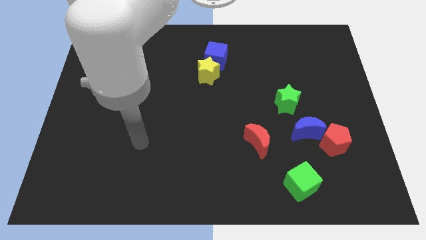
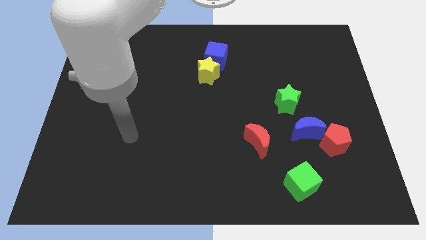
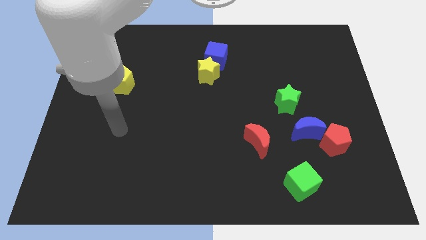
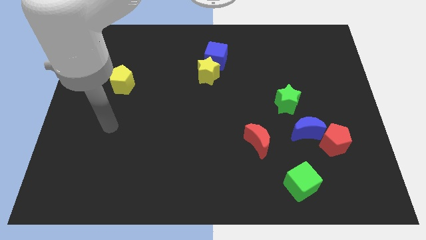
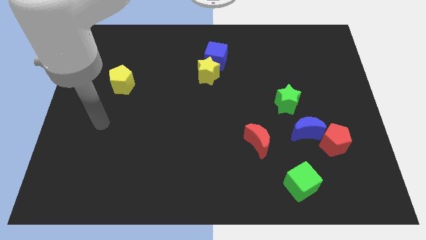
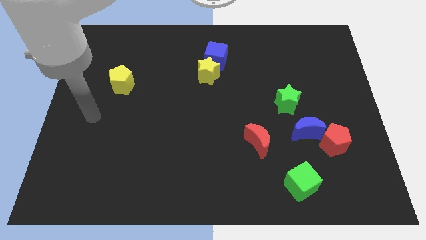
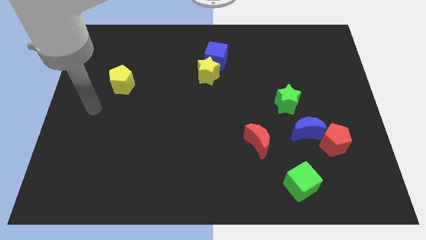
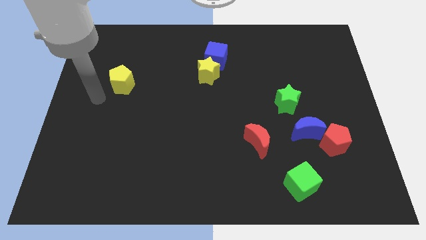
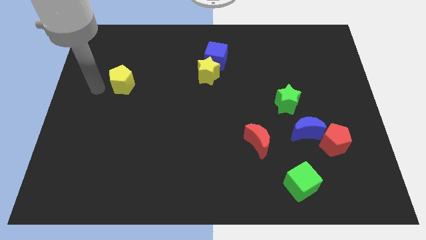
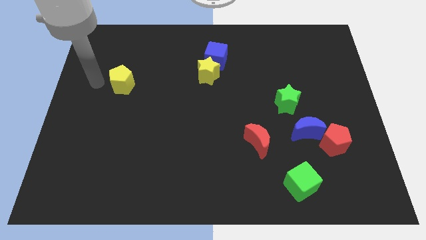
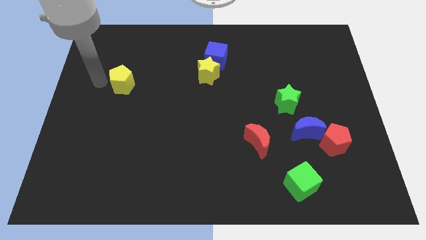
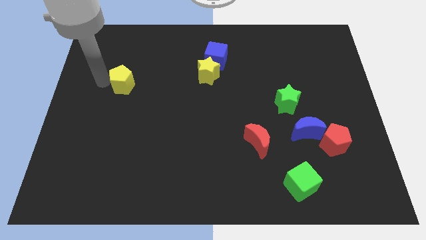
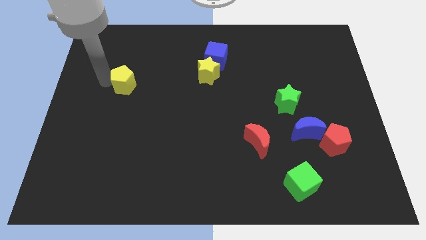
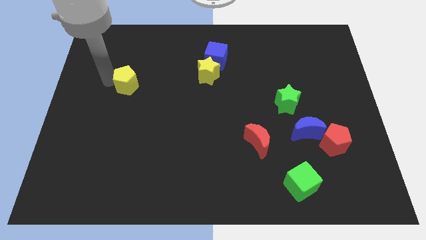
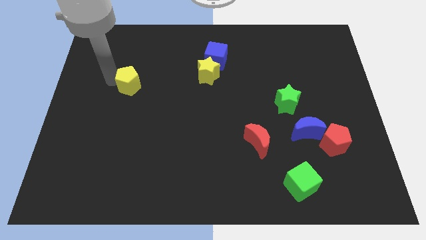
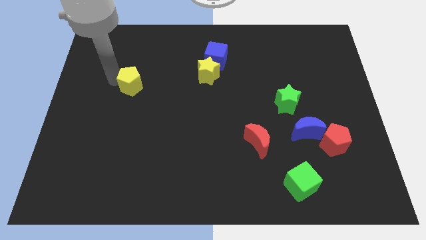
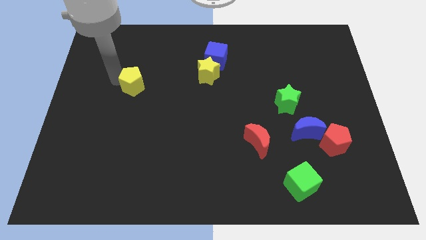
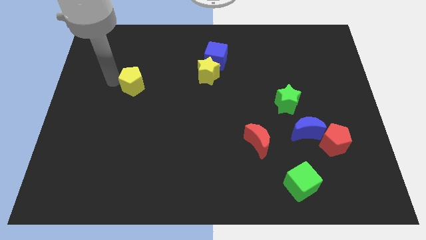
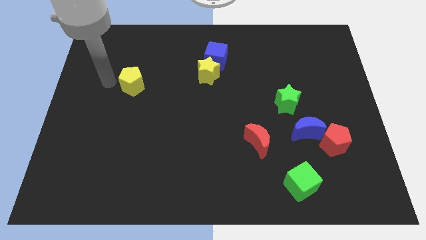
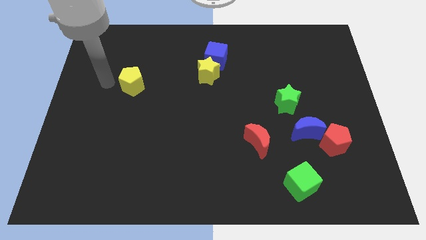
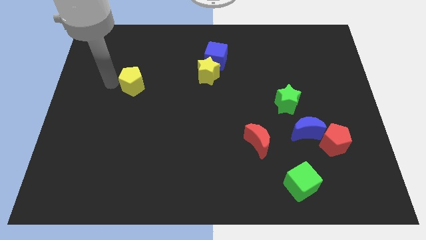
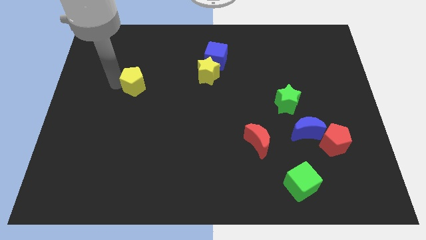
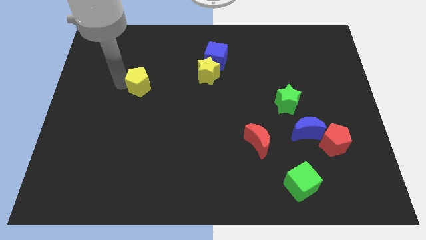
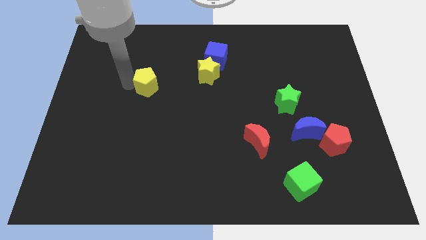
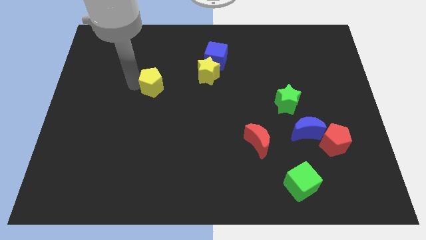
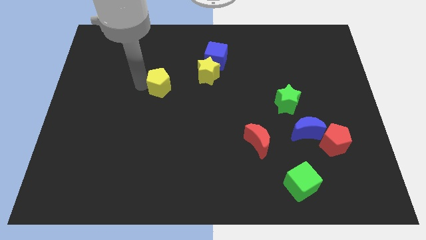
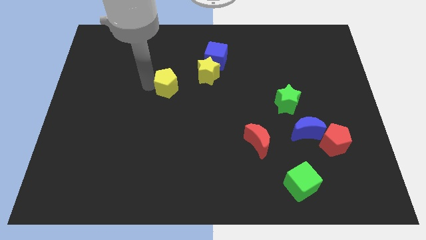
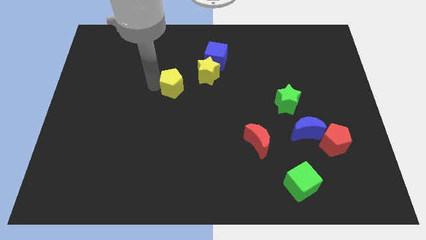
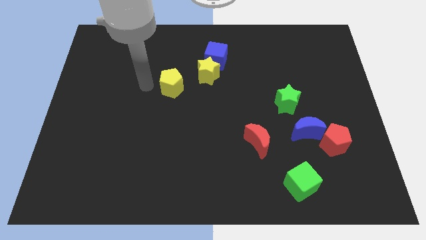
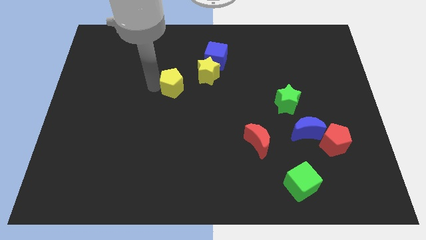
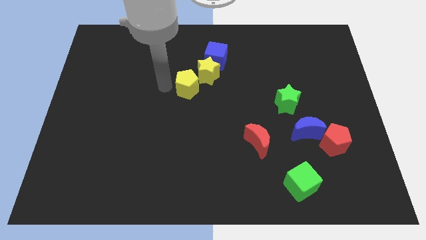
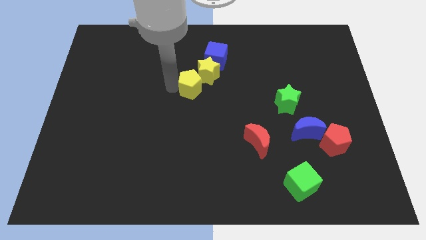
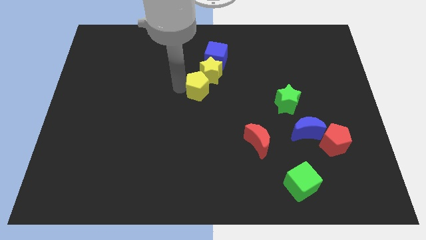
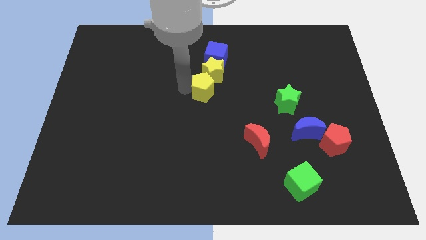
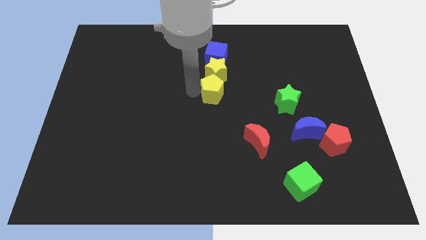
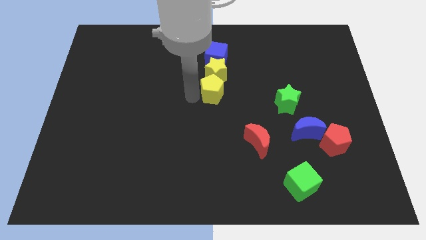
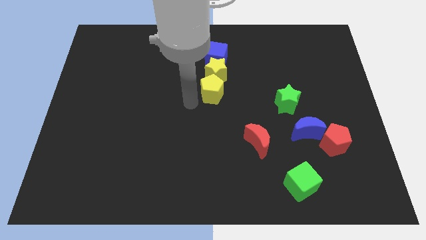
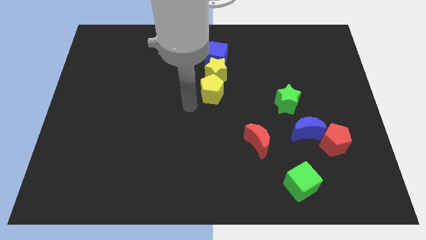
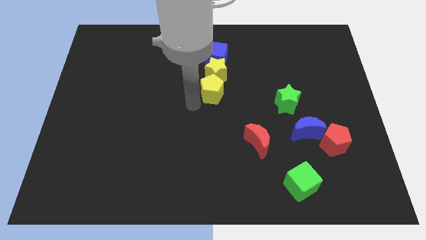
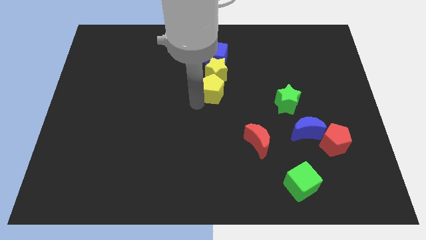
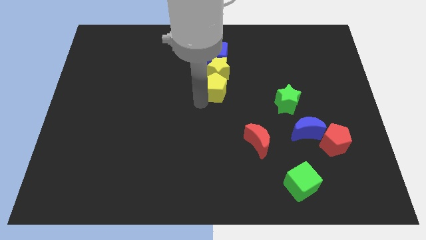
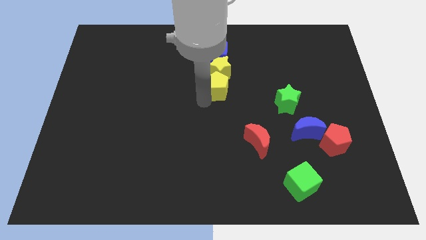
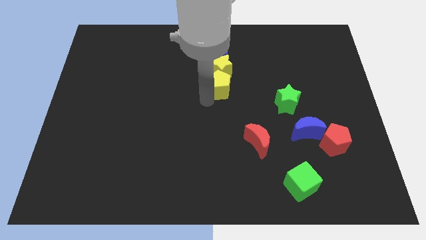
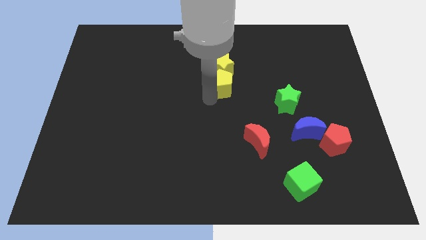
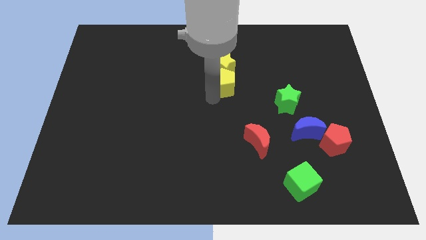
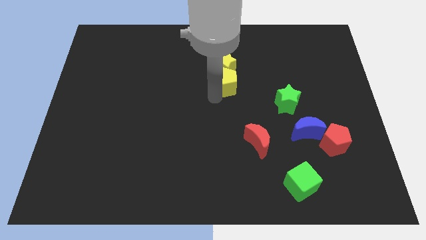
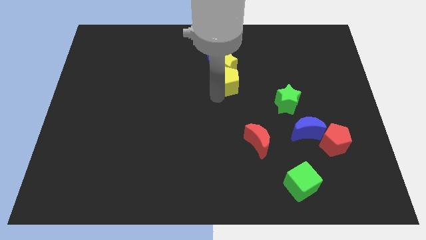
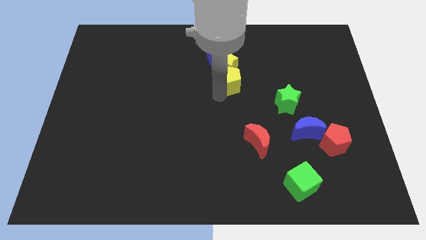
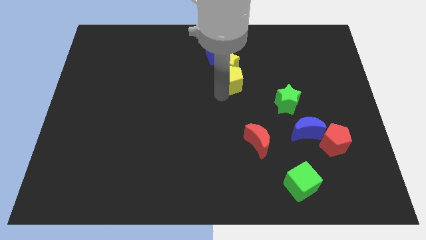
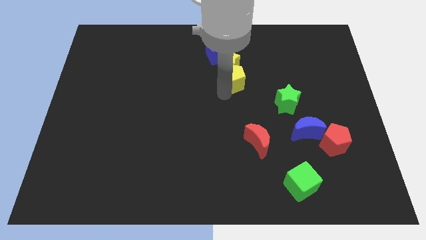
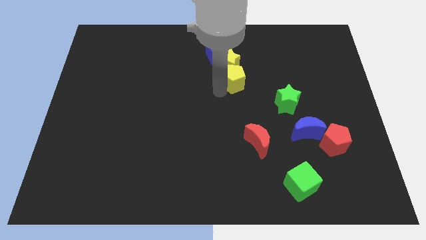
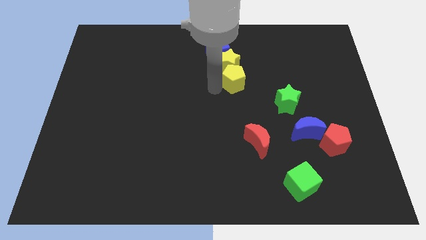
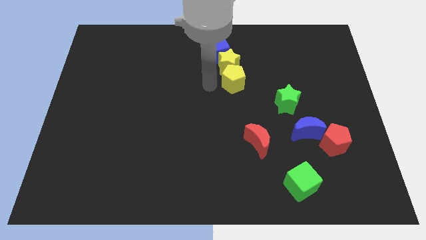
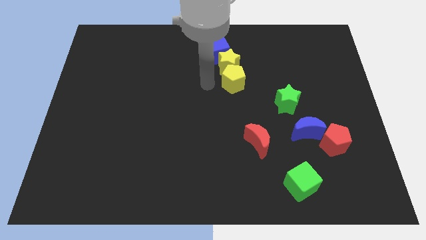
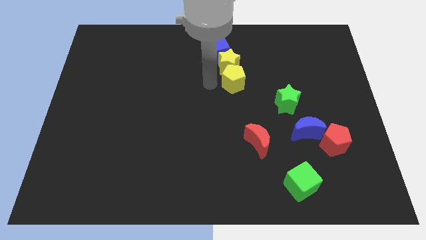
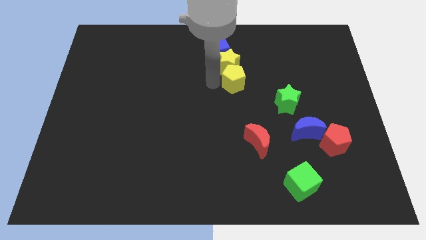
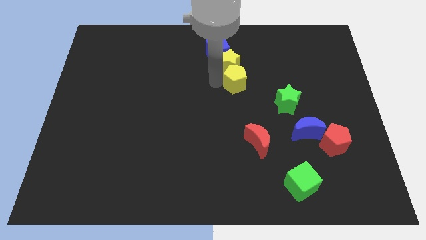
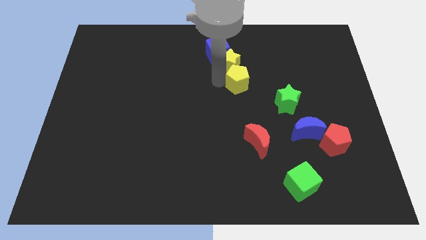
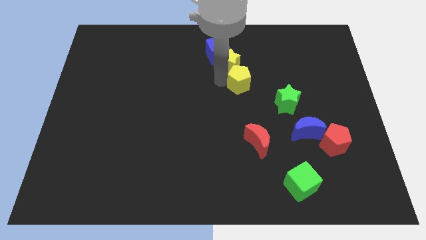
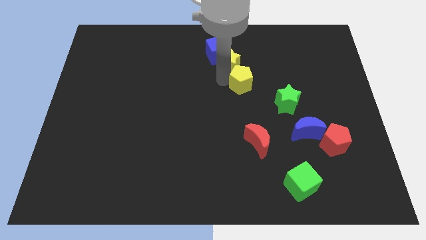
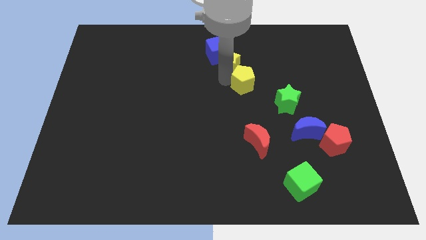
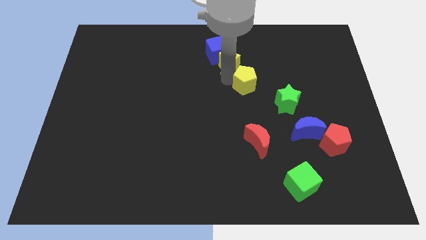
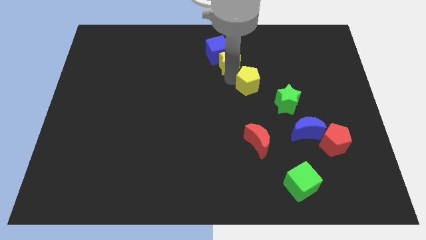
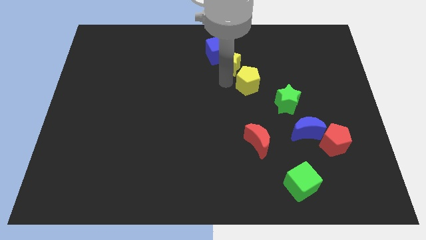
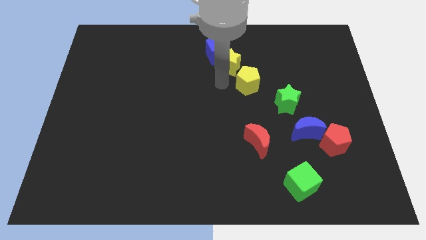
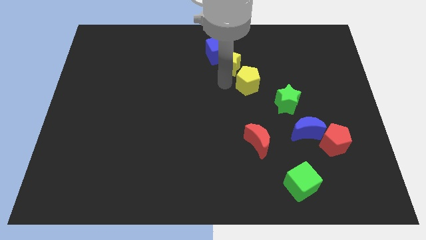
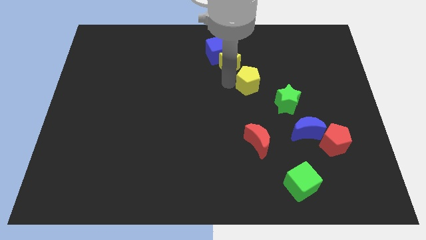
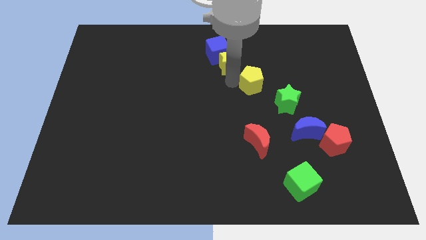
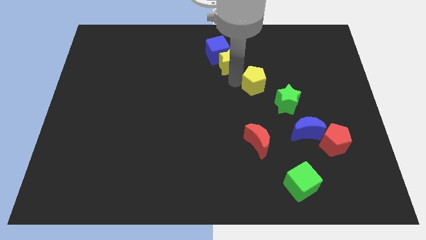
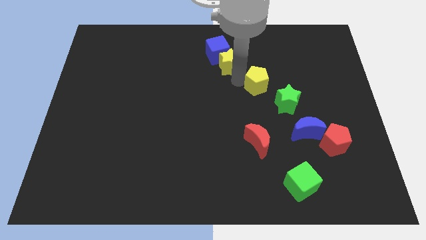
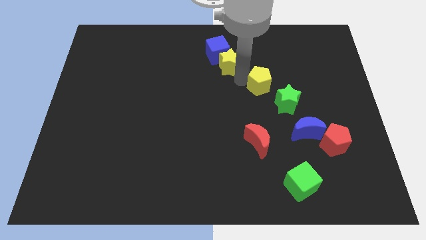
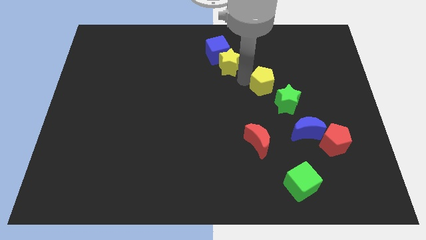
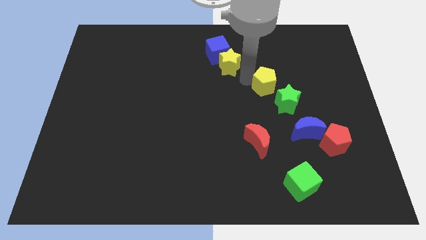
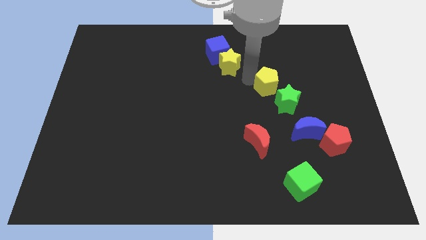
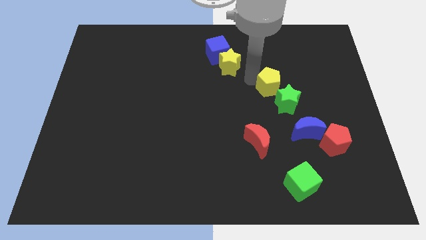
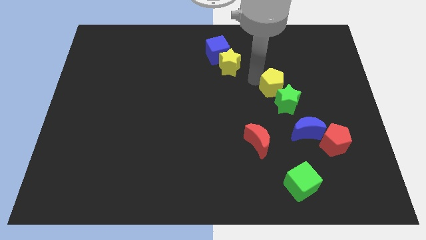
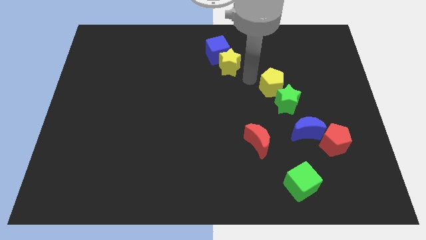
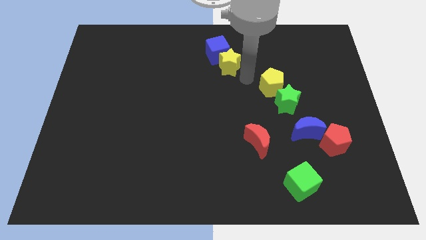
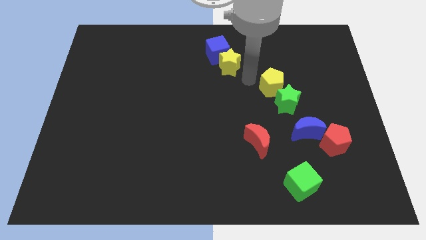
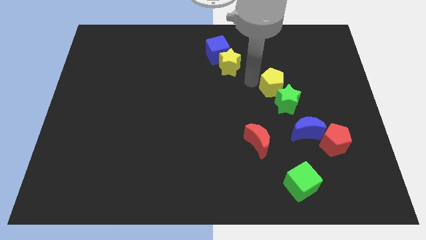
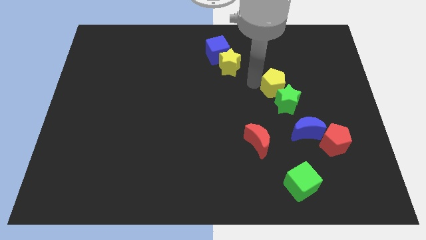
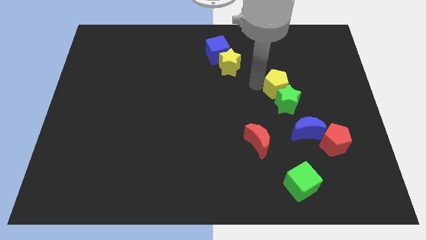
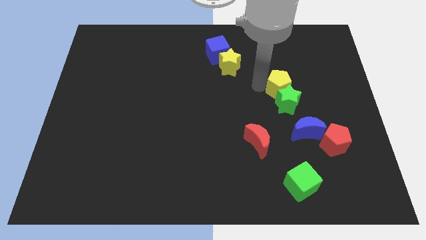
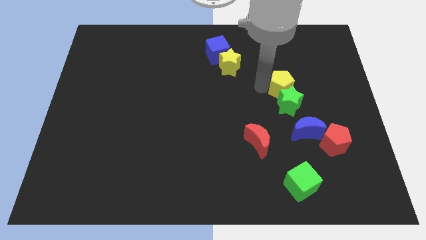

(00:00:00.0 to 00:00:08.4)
move the yellow pentagon above the blue moon
